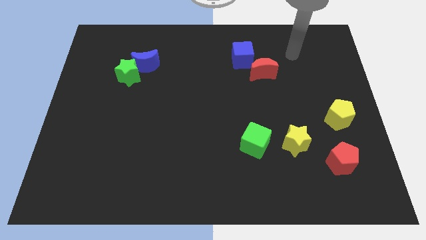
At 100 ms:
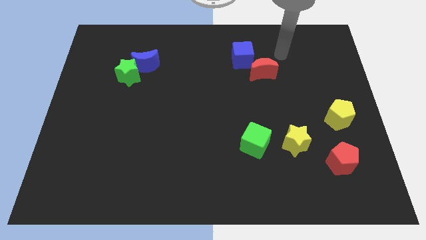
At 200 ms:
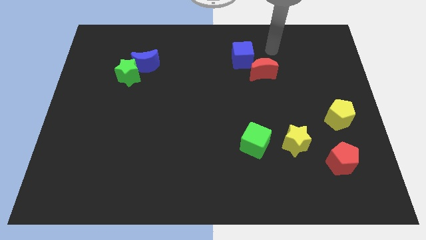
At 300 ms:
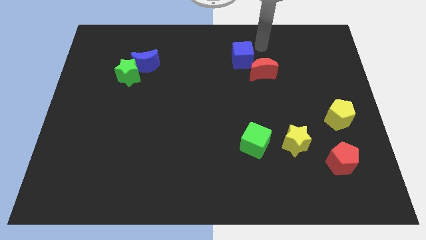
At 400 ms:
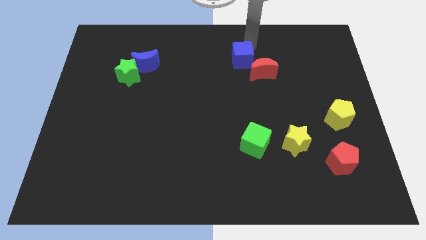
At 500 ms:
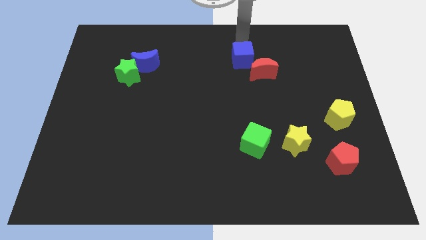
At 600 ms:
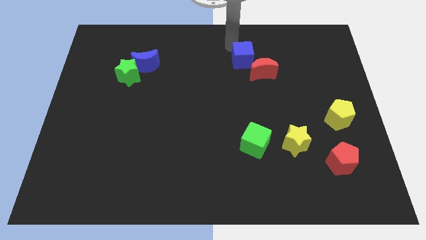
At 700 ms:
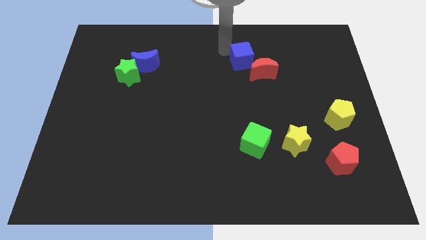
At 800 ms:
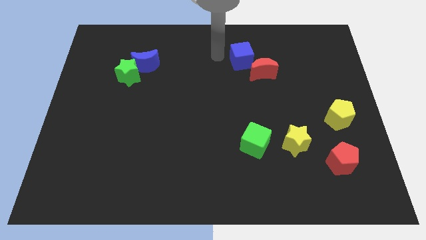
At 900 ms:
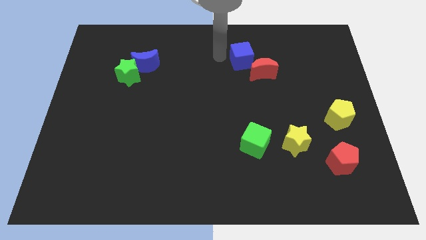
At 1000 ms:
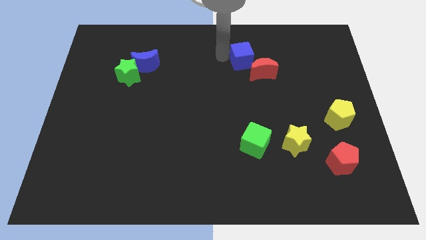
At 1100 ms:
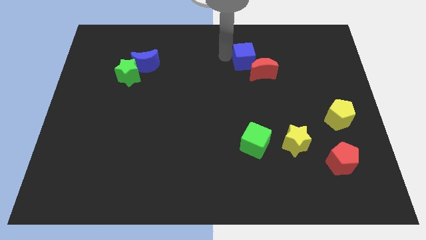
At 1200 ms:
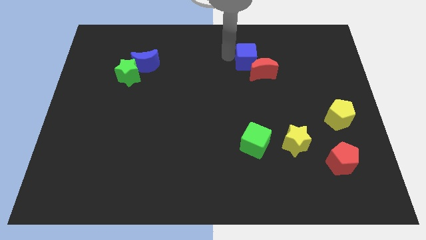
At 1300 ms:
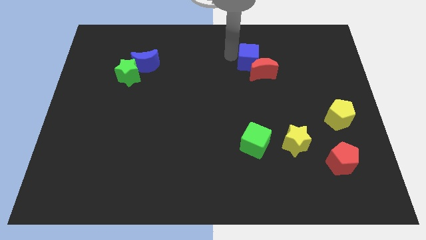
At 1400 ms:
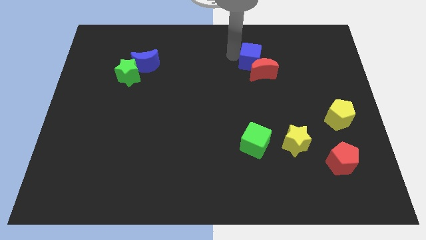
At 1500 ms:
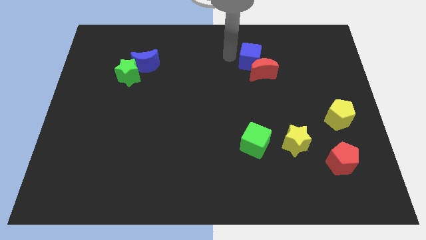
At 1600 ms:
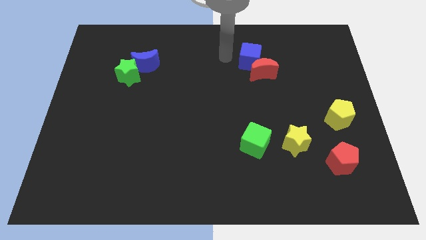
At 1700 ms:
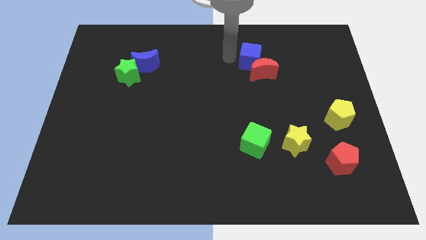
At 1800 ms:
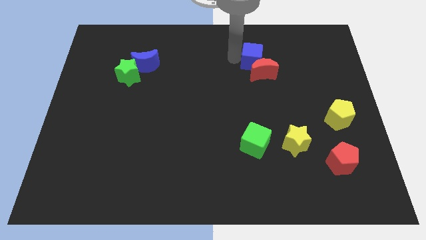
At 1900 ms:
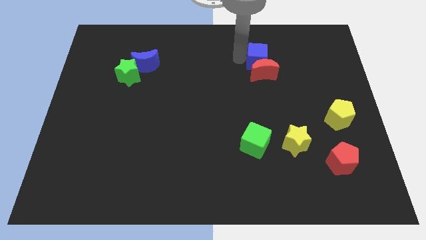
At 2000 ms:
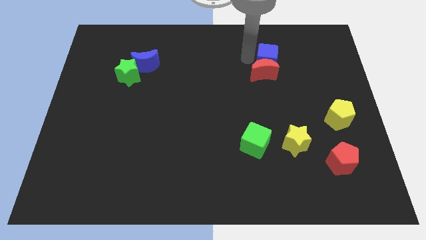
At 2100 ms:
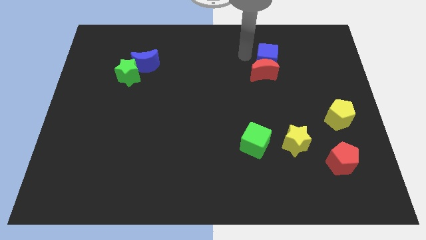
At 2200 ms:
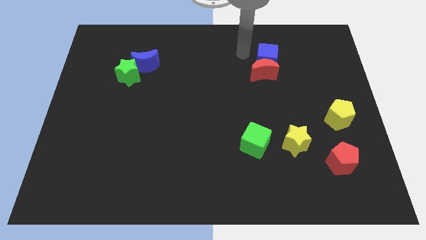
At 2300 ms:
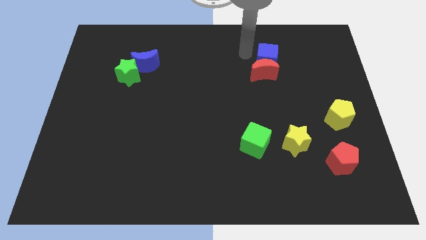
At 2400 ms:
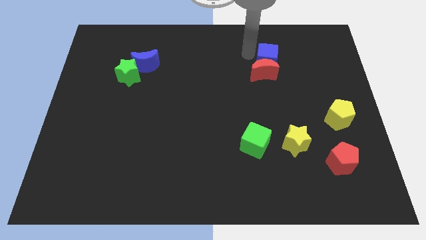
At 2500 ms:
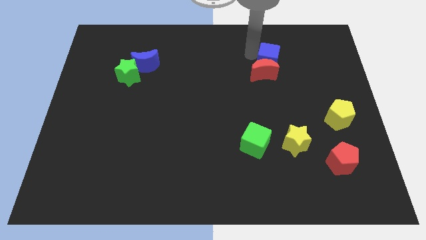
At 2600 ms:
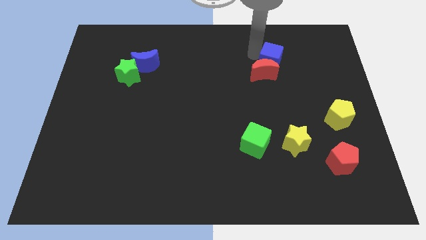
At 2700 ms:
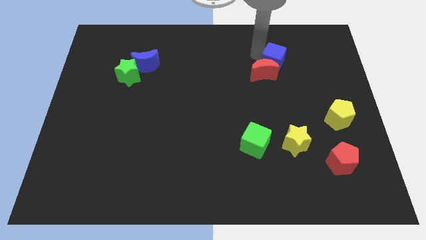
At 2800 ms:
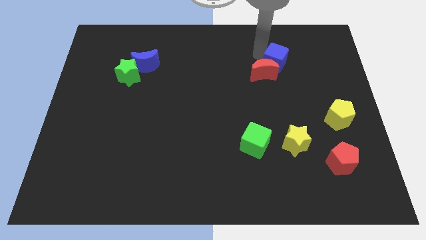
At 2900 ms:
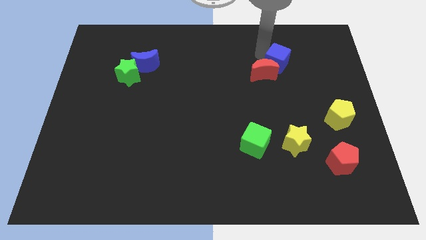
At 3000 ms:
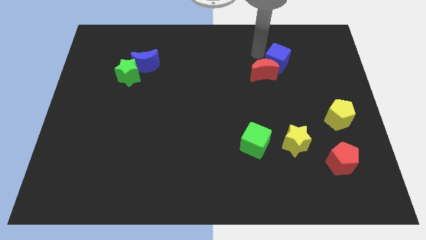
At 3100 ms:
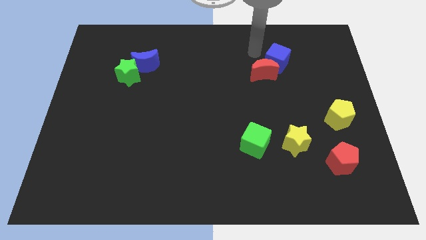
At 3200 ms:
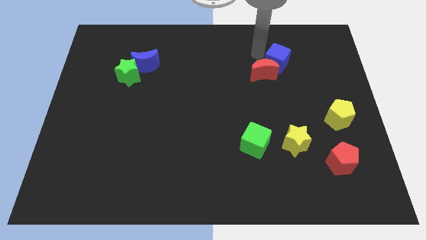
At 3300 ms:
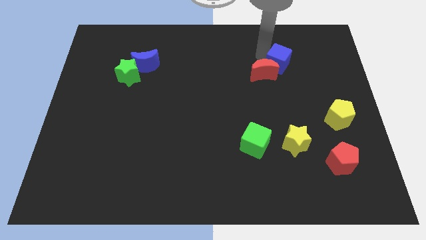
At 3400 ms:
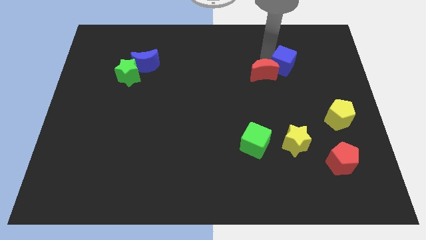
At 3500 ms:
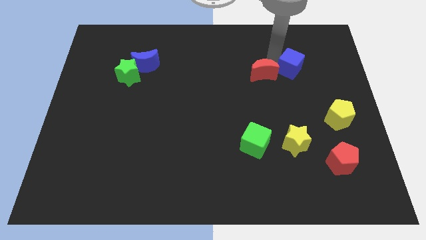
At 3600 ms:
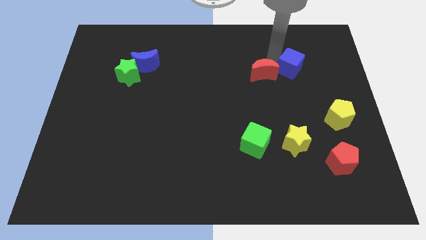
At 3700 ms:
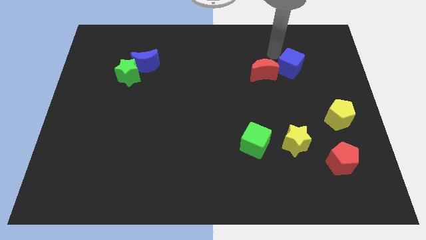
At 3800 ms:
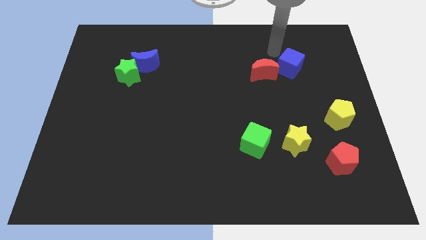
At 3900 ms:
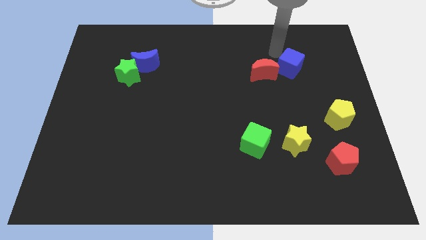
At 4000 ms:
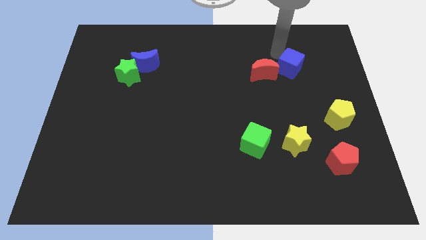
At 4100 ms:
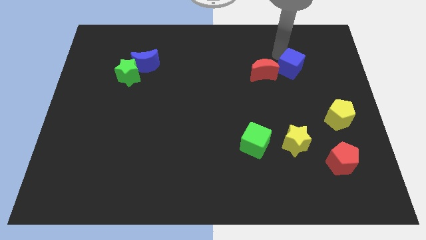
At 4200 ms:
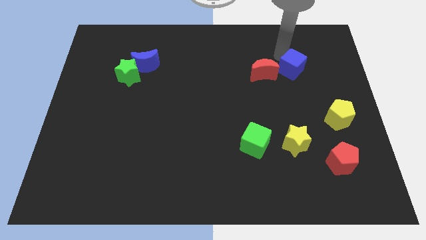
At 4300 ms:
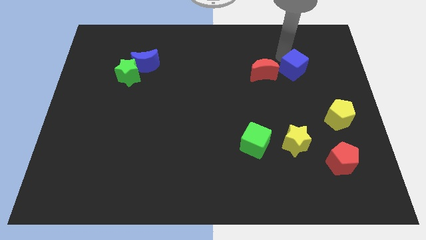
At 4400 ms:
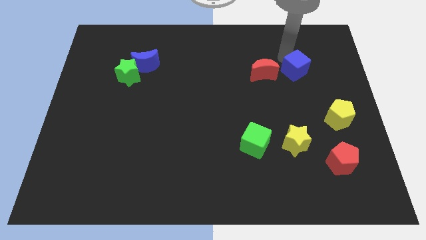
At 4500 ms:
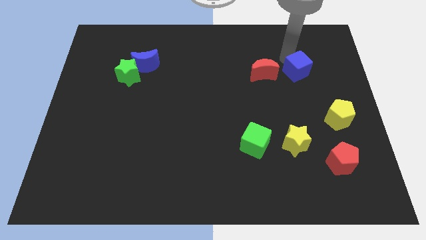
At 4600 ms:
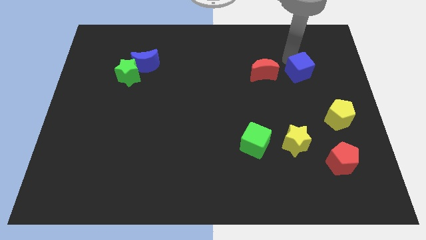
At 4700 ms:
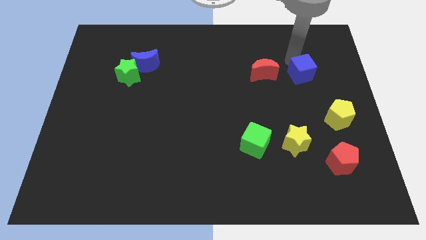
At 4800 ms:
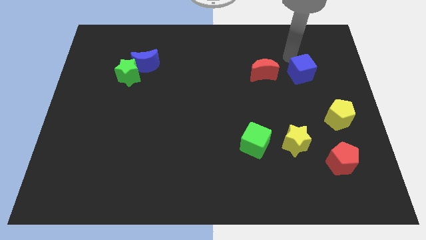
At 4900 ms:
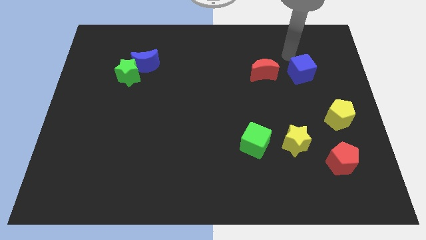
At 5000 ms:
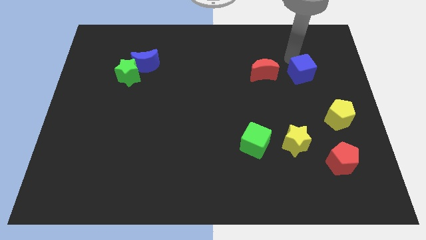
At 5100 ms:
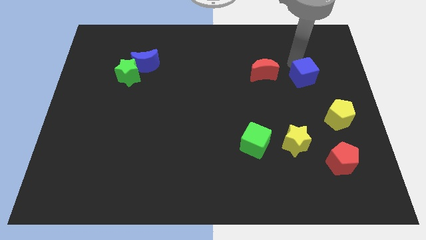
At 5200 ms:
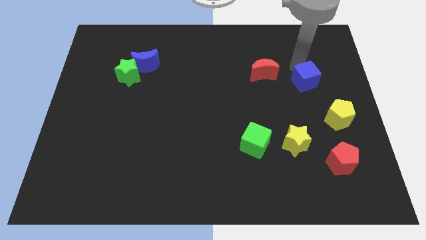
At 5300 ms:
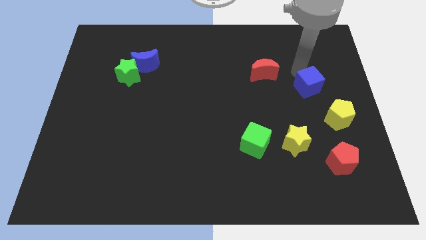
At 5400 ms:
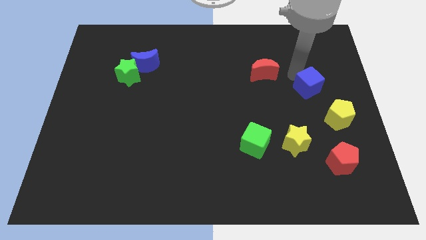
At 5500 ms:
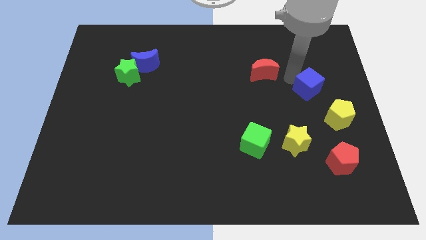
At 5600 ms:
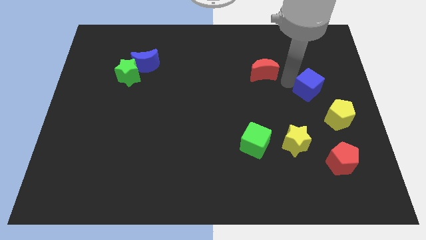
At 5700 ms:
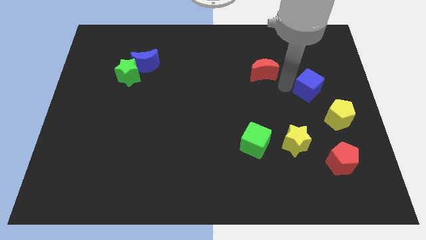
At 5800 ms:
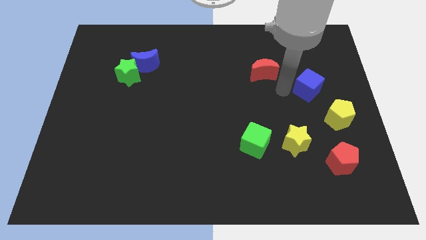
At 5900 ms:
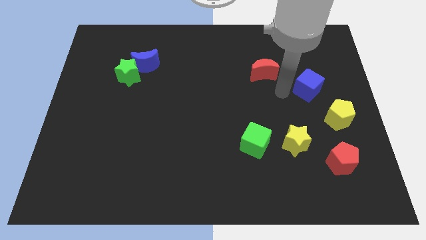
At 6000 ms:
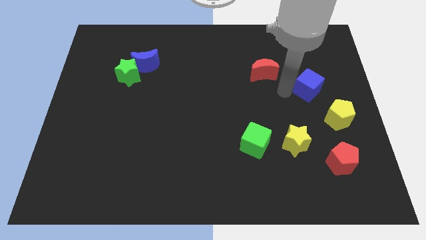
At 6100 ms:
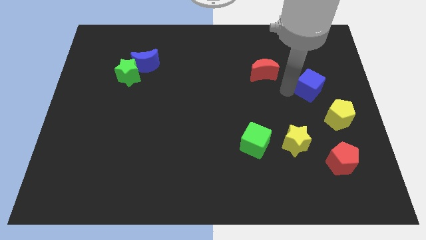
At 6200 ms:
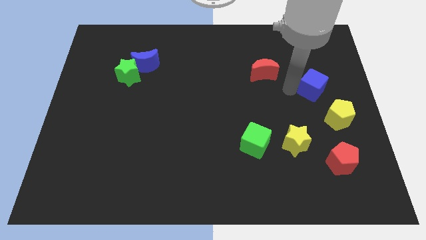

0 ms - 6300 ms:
push the blue cube above the yellow pentagon

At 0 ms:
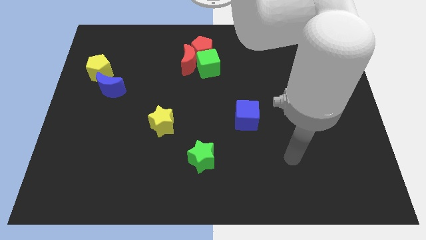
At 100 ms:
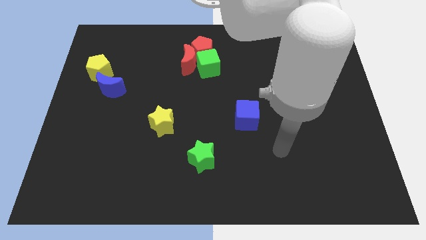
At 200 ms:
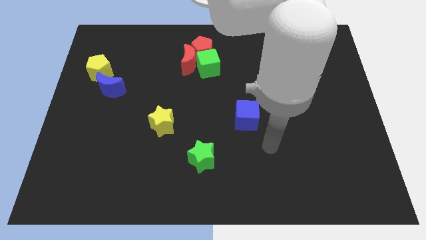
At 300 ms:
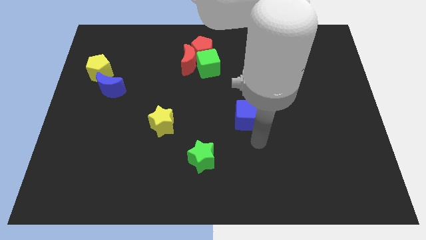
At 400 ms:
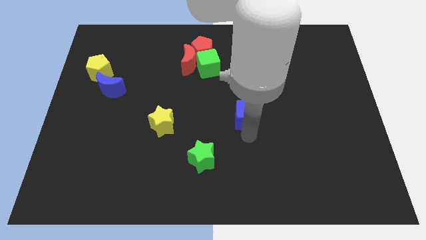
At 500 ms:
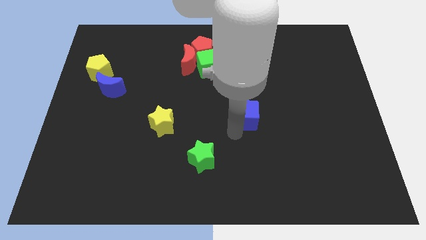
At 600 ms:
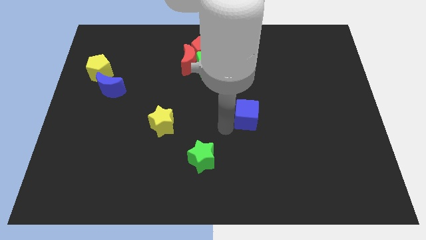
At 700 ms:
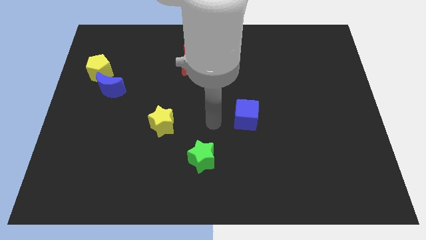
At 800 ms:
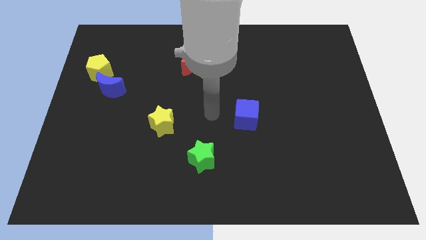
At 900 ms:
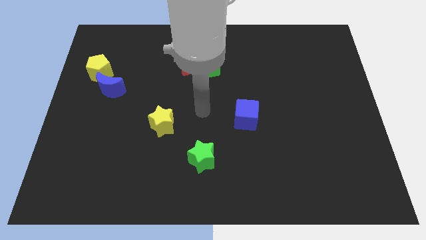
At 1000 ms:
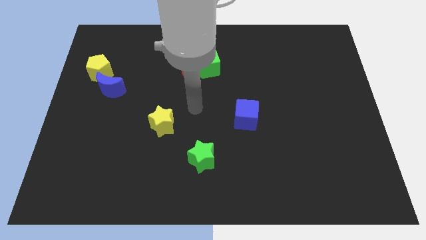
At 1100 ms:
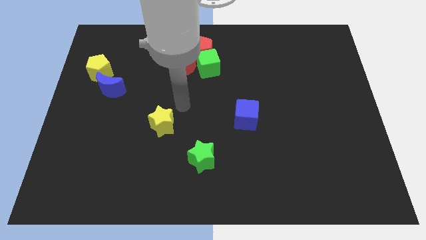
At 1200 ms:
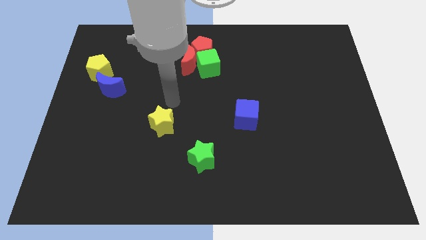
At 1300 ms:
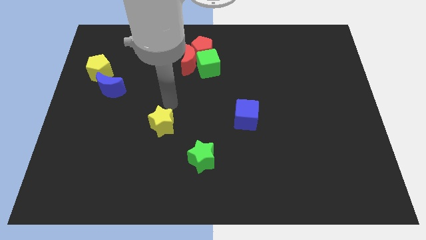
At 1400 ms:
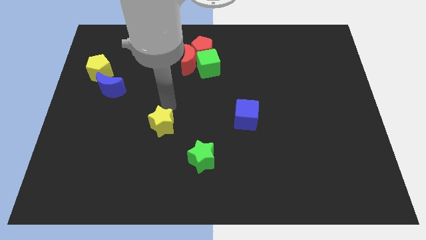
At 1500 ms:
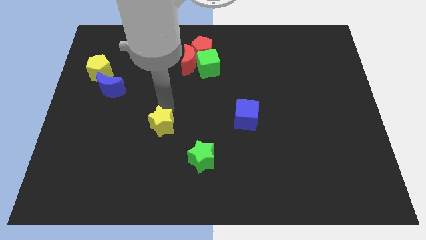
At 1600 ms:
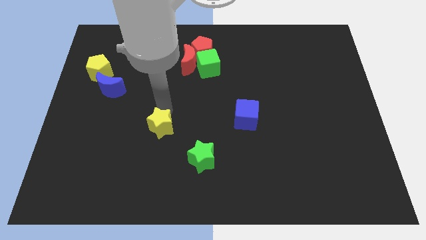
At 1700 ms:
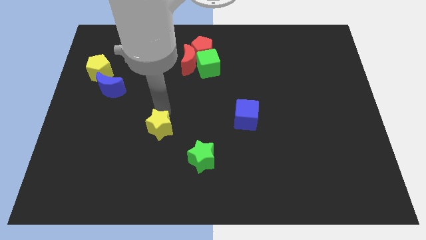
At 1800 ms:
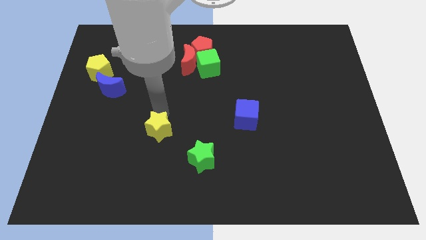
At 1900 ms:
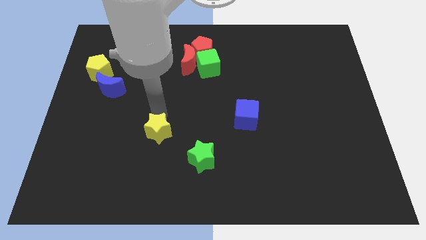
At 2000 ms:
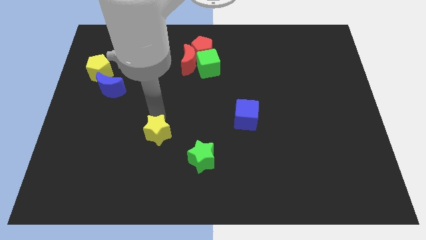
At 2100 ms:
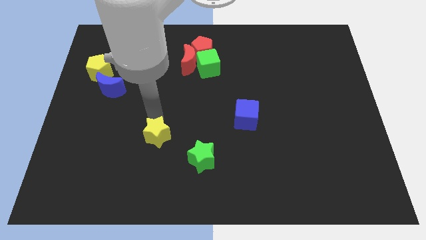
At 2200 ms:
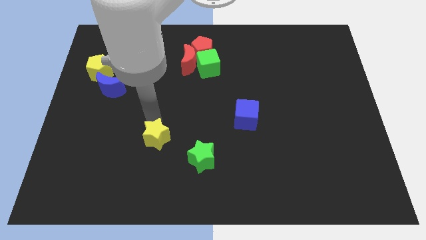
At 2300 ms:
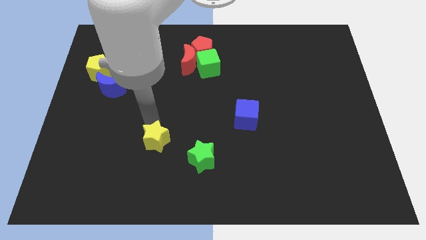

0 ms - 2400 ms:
slide the yellow star to the left of the green star
